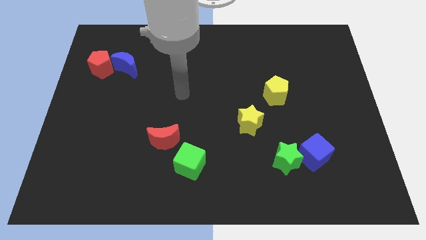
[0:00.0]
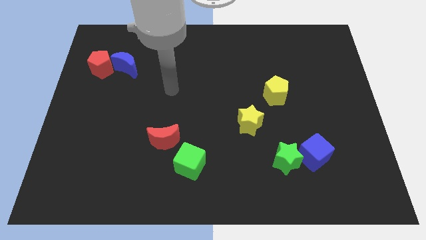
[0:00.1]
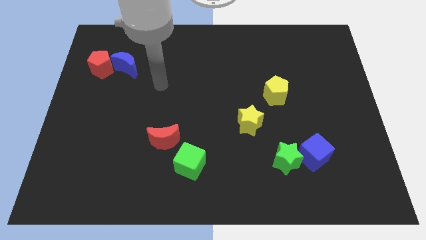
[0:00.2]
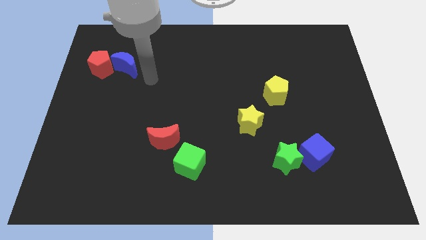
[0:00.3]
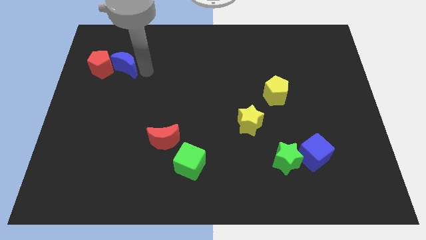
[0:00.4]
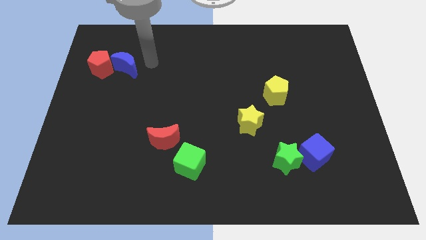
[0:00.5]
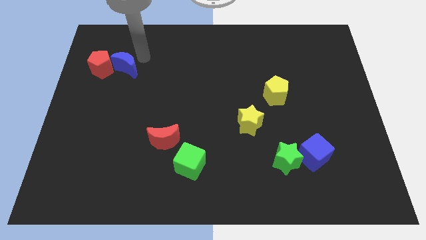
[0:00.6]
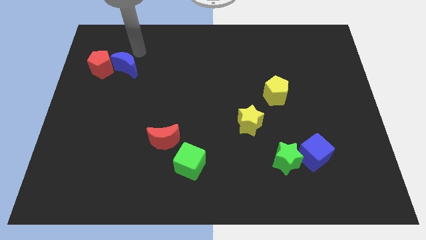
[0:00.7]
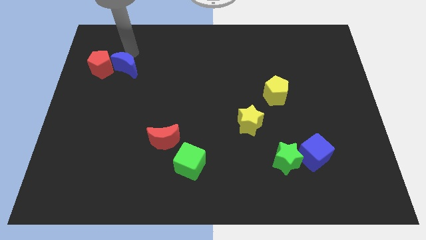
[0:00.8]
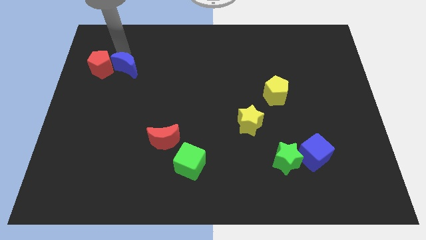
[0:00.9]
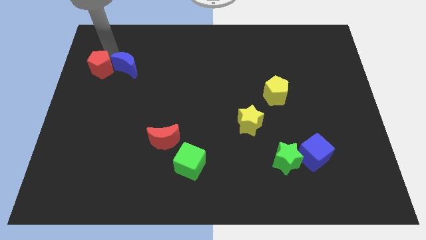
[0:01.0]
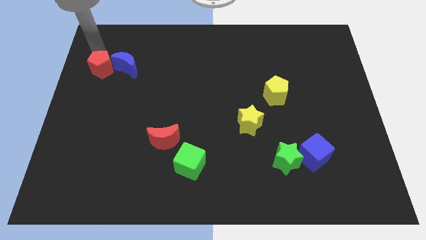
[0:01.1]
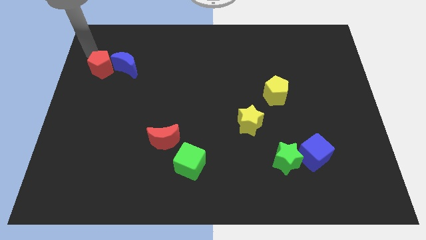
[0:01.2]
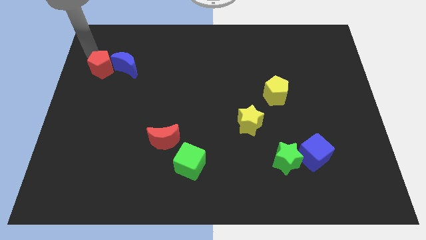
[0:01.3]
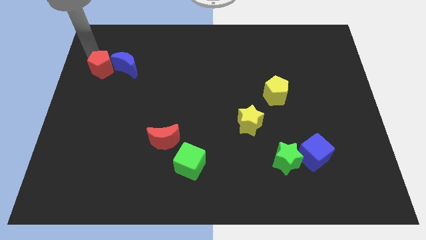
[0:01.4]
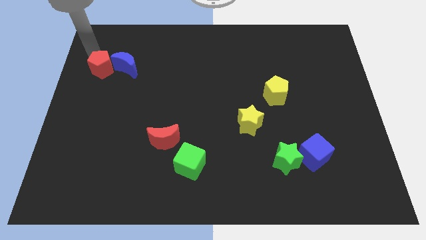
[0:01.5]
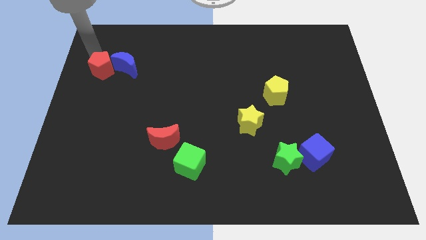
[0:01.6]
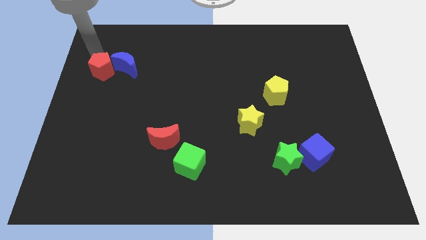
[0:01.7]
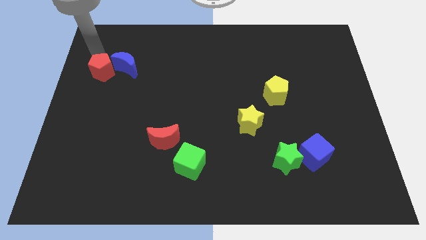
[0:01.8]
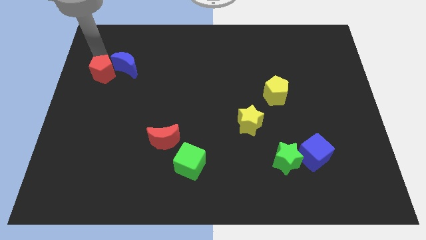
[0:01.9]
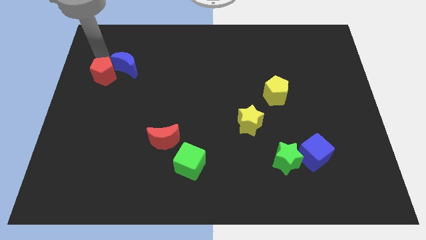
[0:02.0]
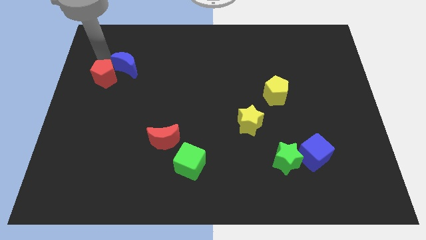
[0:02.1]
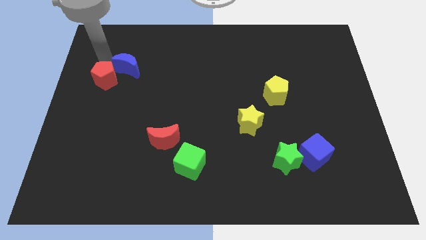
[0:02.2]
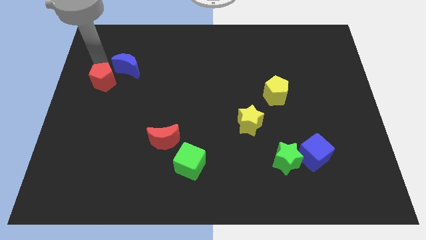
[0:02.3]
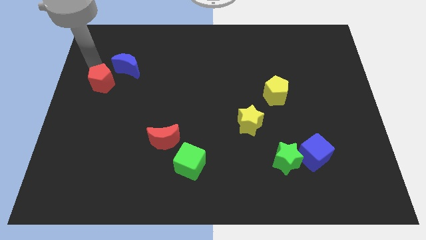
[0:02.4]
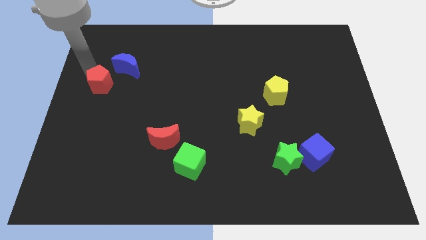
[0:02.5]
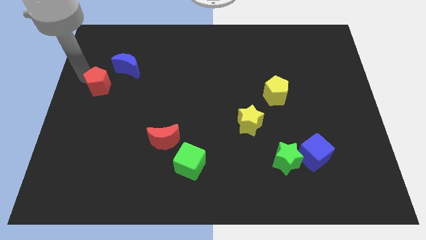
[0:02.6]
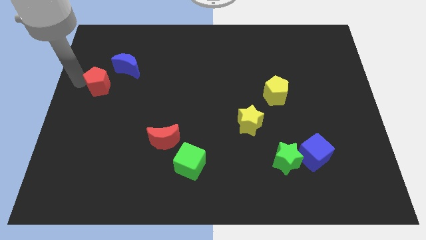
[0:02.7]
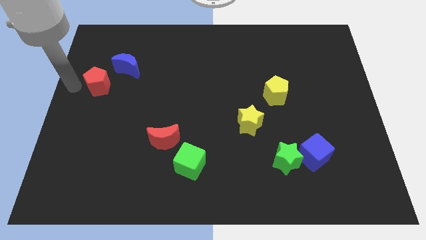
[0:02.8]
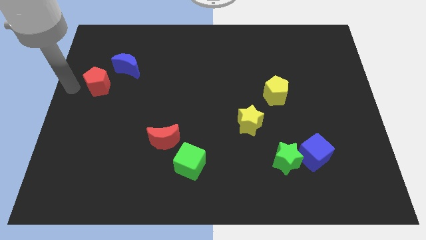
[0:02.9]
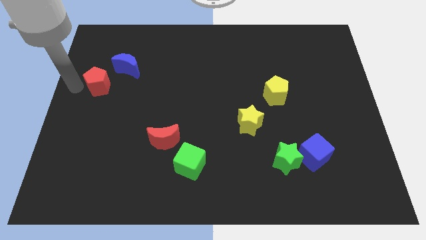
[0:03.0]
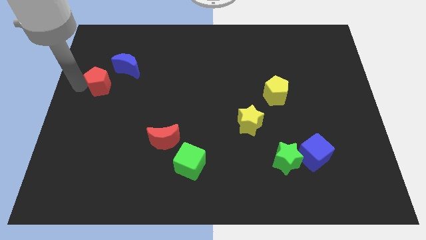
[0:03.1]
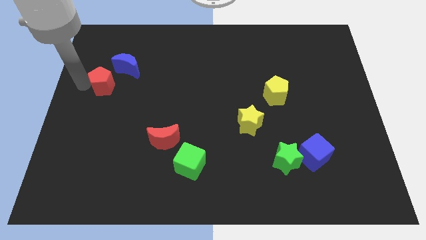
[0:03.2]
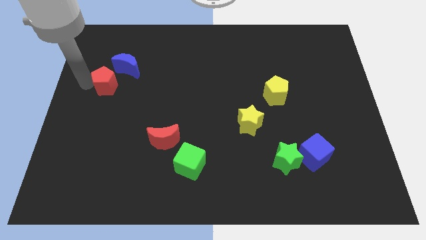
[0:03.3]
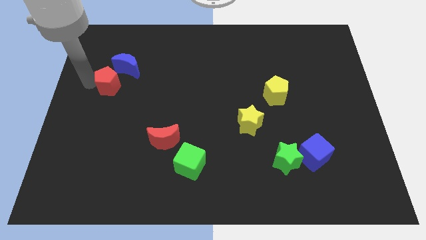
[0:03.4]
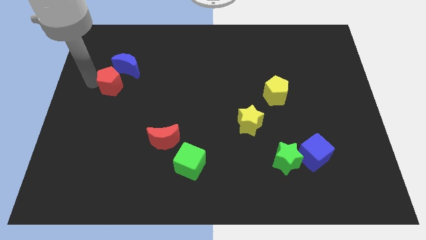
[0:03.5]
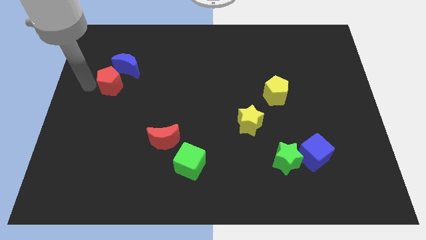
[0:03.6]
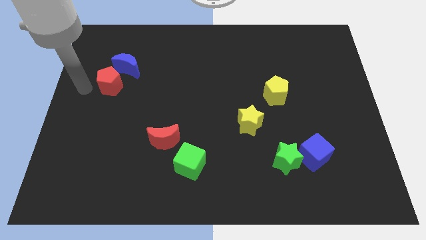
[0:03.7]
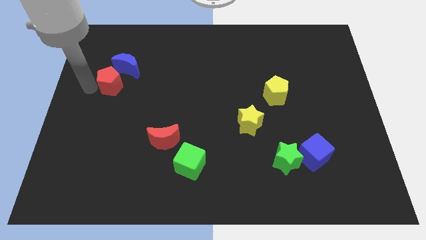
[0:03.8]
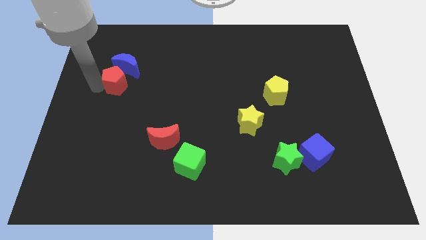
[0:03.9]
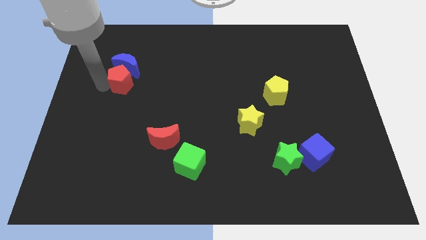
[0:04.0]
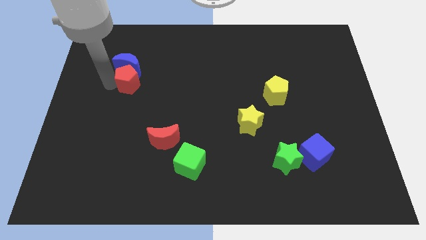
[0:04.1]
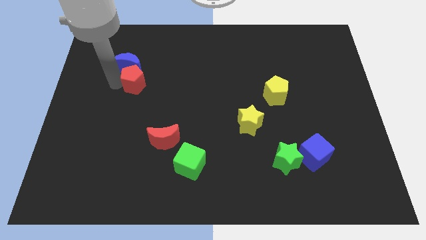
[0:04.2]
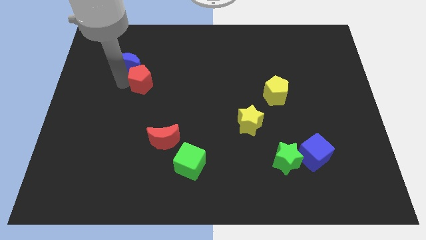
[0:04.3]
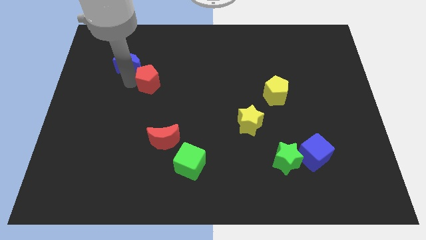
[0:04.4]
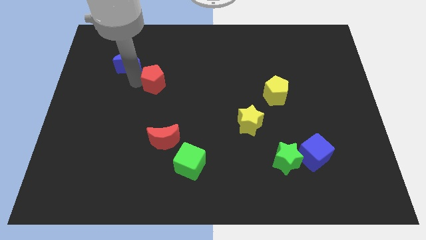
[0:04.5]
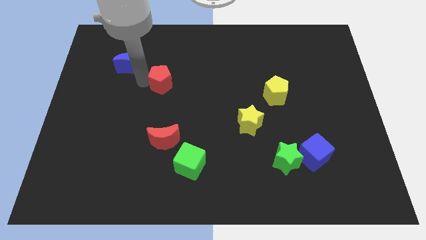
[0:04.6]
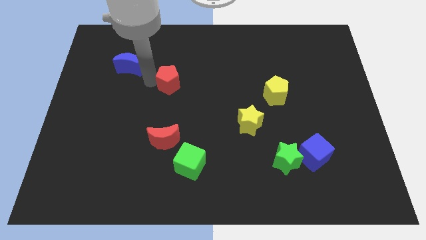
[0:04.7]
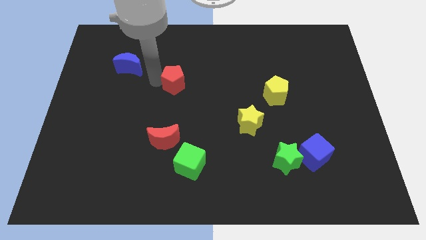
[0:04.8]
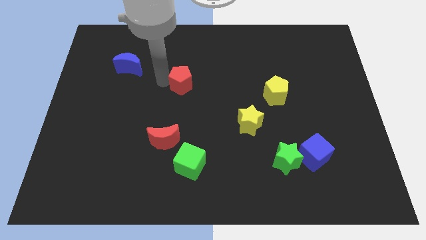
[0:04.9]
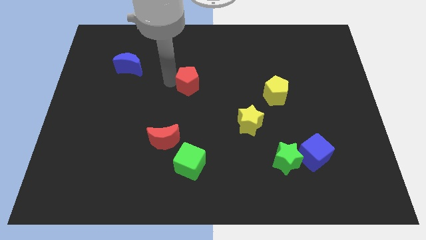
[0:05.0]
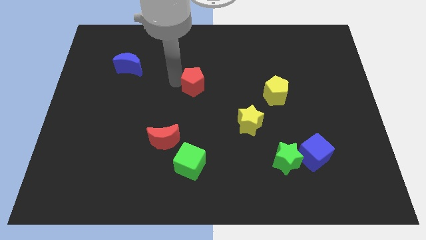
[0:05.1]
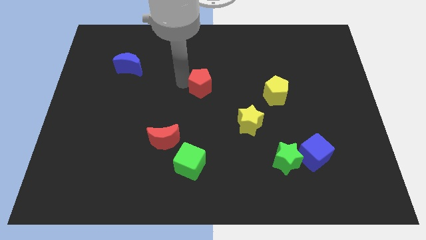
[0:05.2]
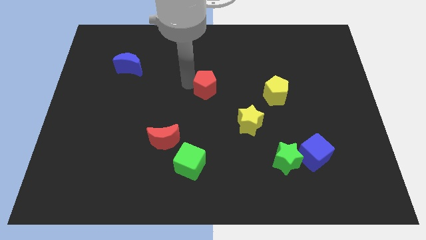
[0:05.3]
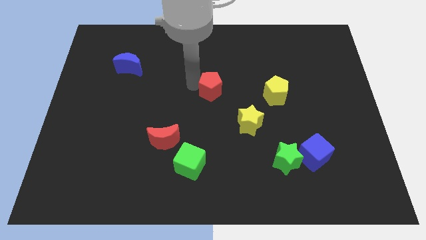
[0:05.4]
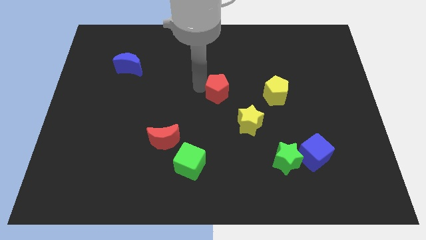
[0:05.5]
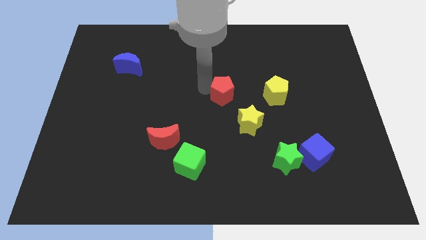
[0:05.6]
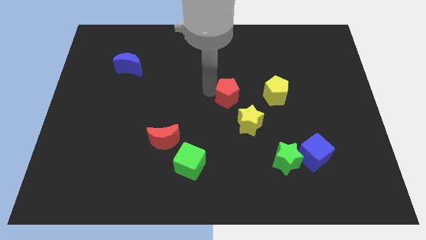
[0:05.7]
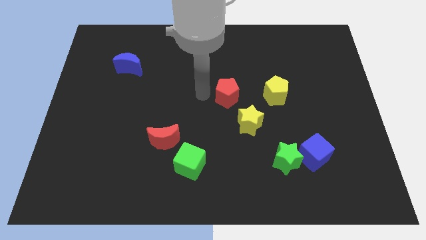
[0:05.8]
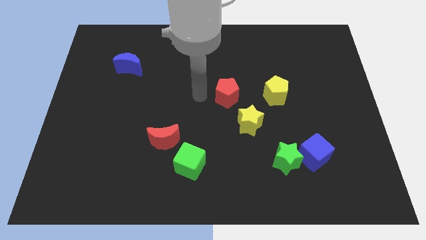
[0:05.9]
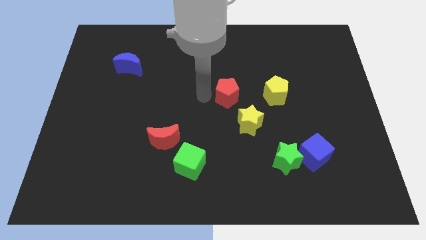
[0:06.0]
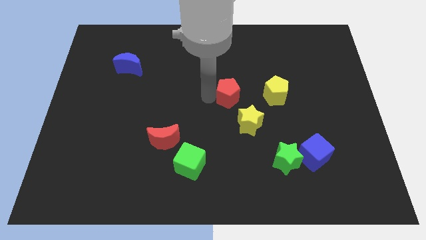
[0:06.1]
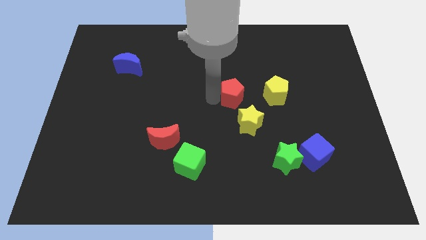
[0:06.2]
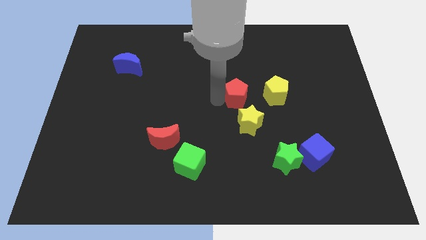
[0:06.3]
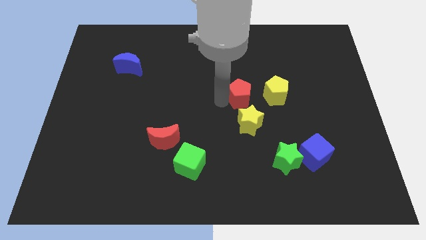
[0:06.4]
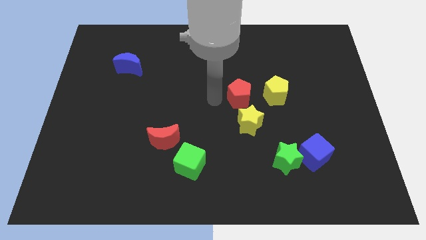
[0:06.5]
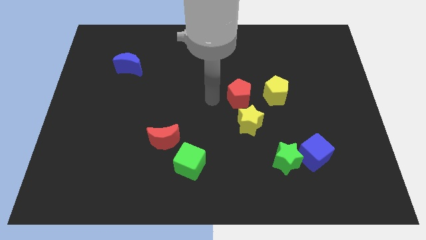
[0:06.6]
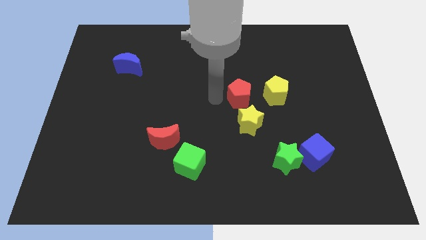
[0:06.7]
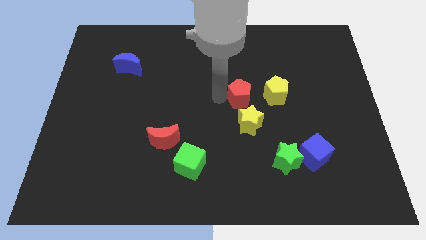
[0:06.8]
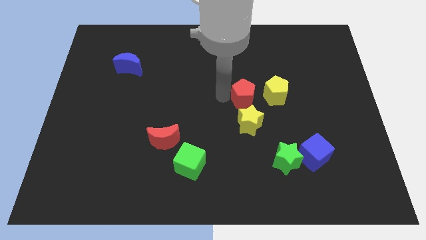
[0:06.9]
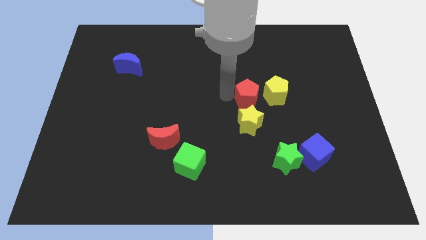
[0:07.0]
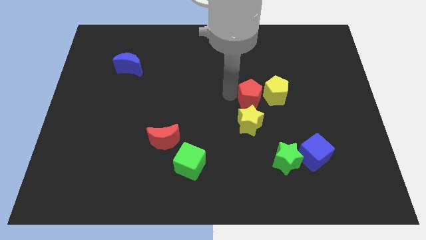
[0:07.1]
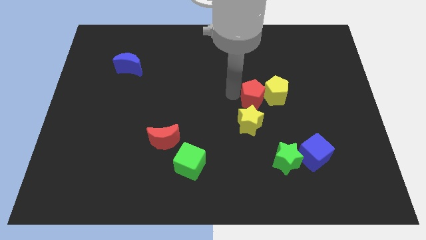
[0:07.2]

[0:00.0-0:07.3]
move the red pentagon to the yellow pentagon

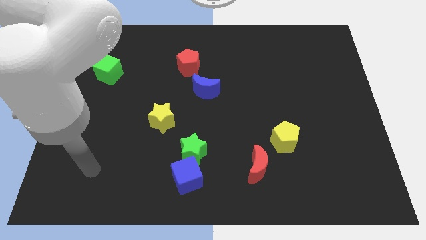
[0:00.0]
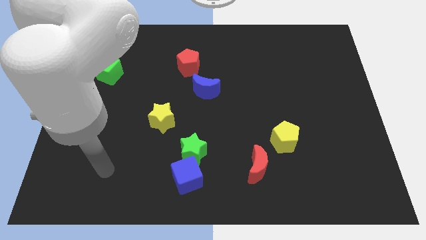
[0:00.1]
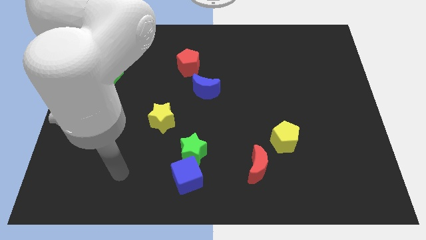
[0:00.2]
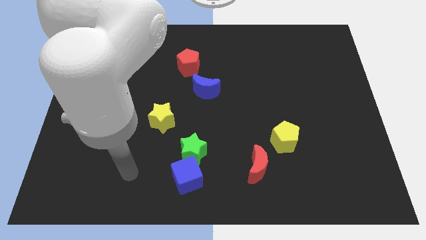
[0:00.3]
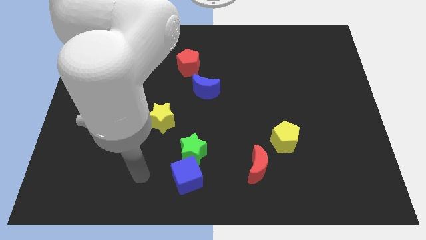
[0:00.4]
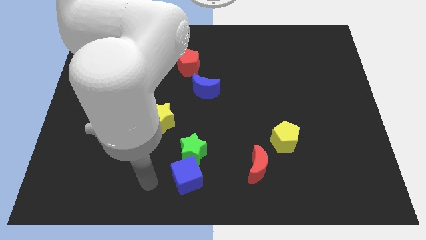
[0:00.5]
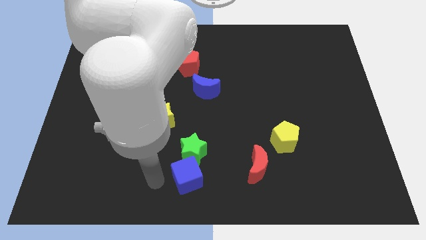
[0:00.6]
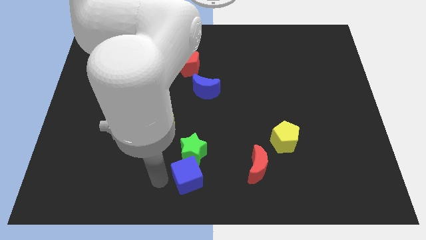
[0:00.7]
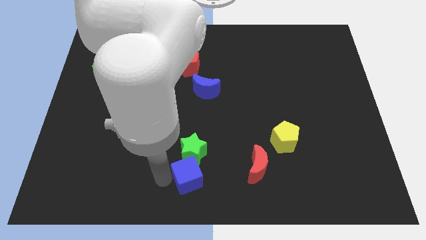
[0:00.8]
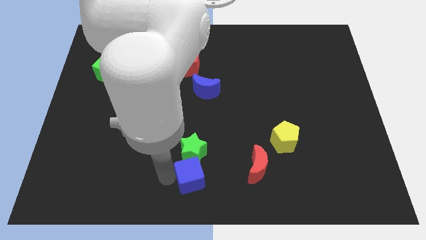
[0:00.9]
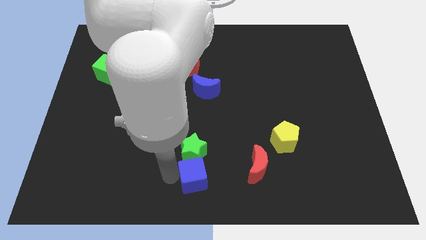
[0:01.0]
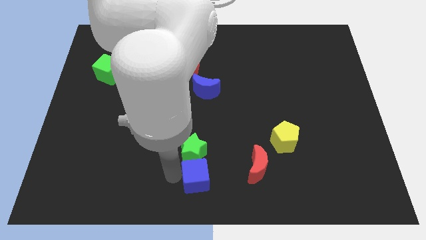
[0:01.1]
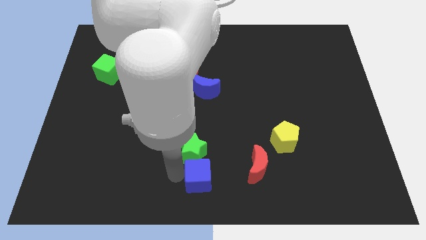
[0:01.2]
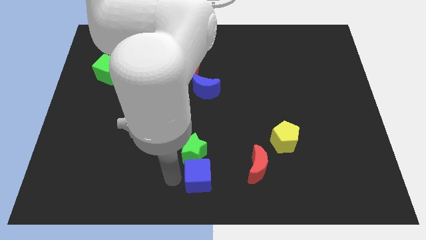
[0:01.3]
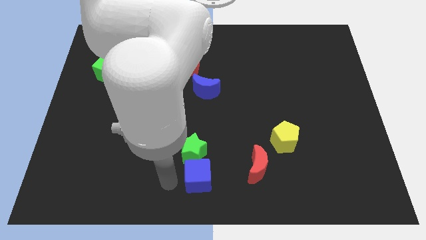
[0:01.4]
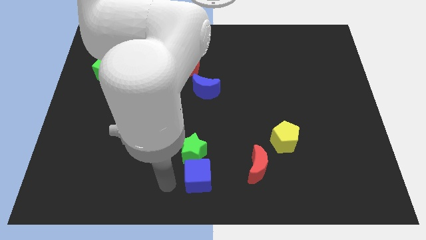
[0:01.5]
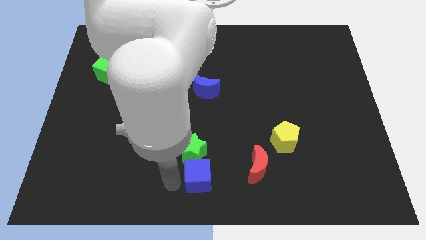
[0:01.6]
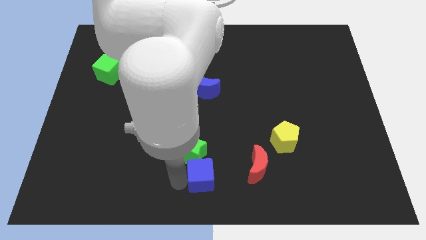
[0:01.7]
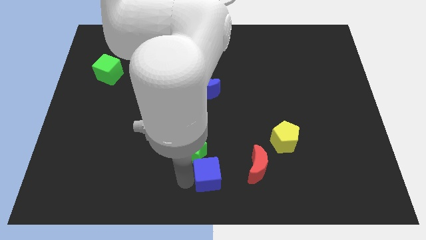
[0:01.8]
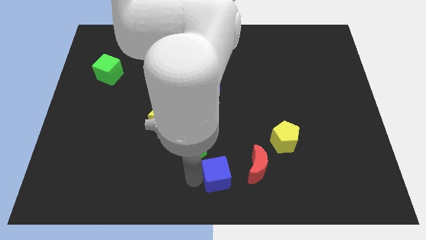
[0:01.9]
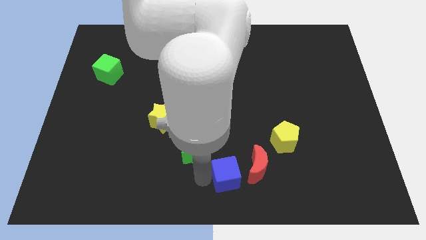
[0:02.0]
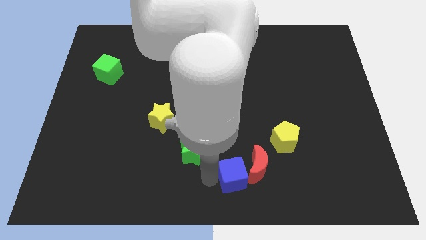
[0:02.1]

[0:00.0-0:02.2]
push the blue cube next to the red moon
